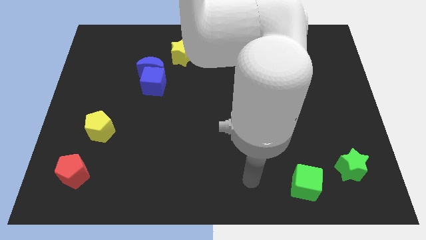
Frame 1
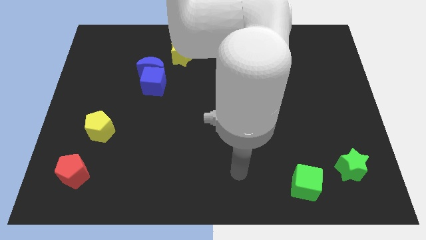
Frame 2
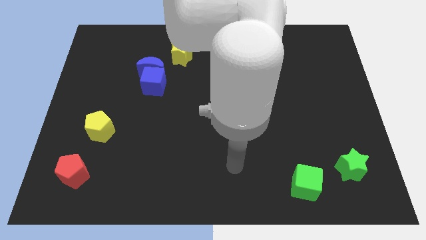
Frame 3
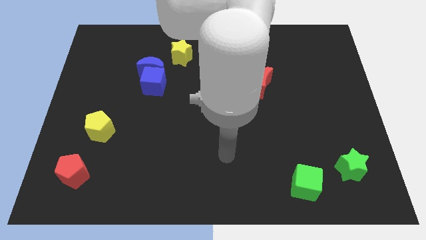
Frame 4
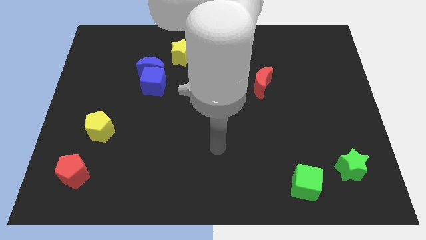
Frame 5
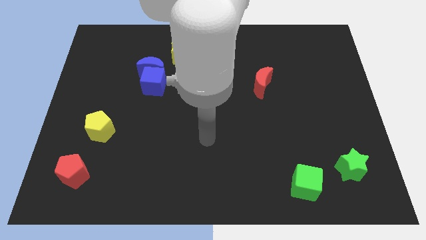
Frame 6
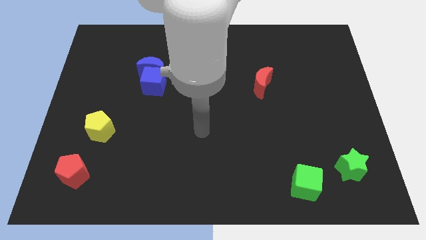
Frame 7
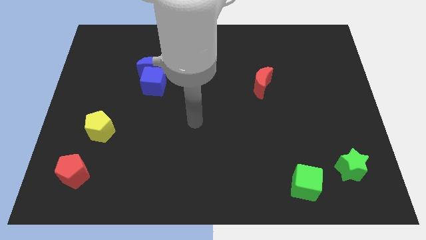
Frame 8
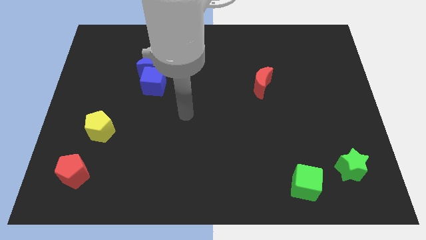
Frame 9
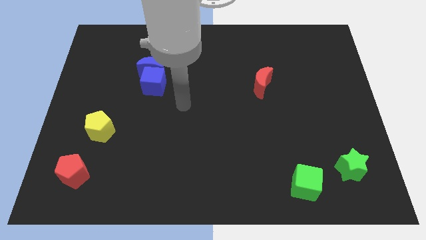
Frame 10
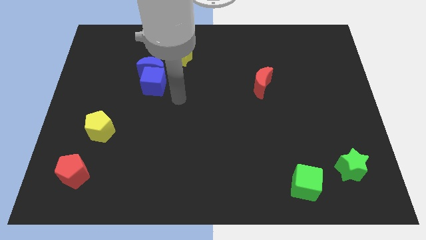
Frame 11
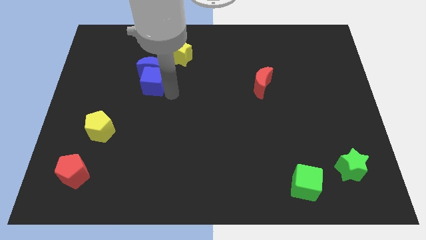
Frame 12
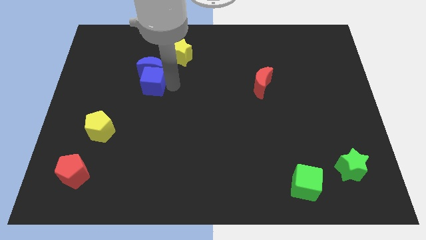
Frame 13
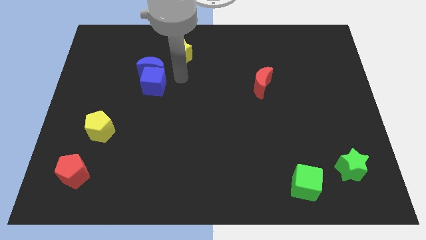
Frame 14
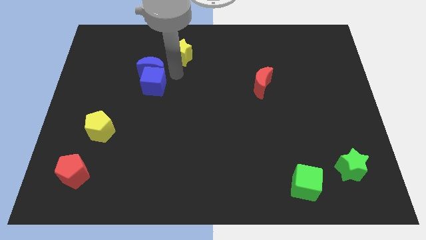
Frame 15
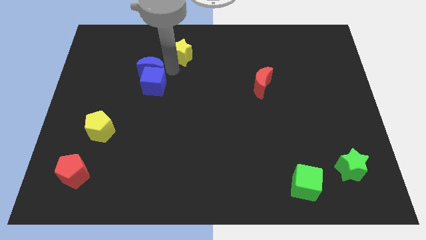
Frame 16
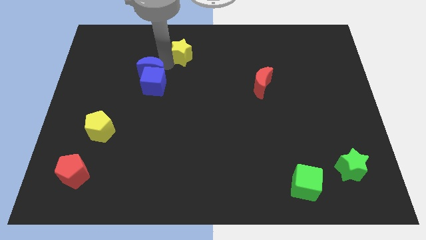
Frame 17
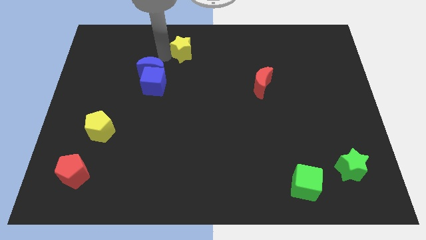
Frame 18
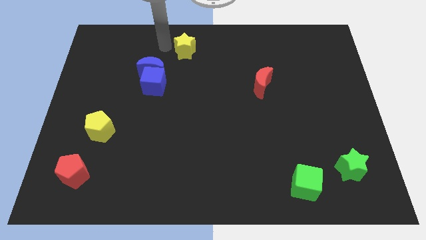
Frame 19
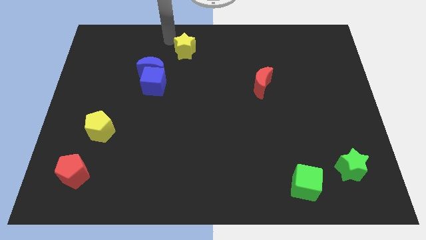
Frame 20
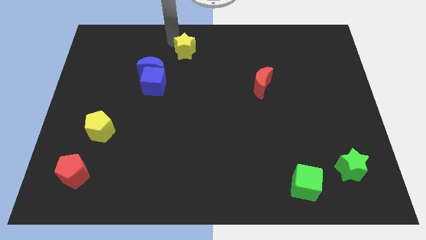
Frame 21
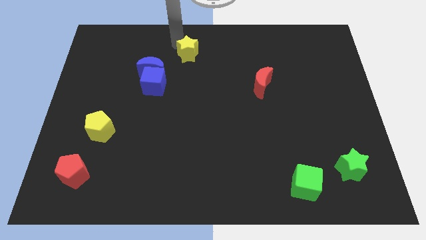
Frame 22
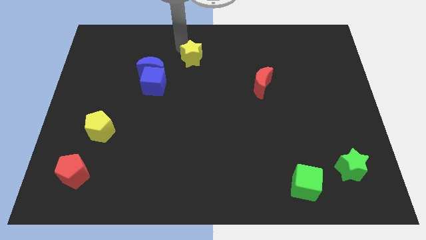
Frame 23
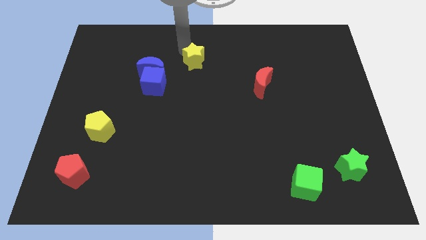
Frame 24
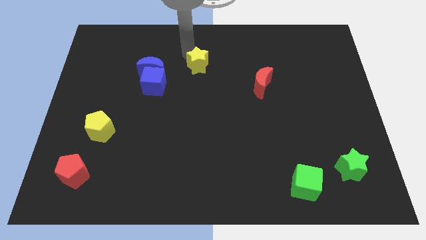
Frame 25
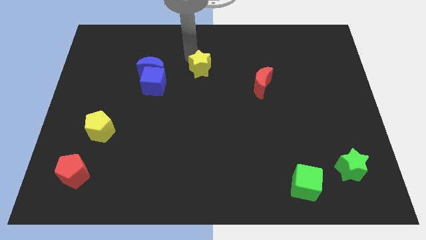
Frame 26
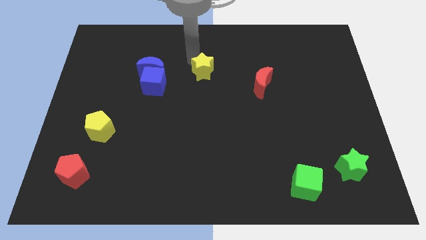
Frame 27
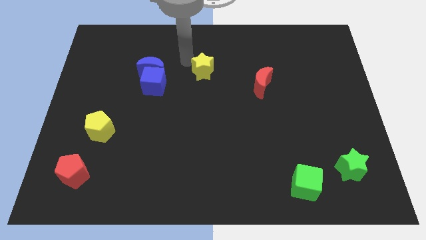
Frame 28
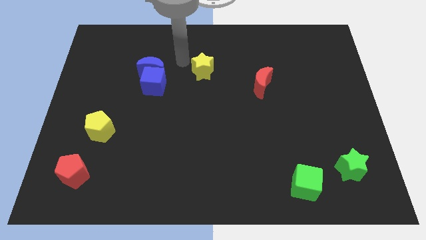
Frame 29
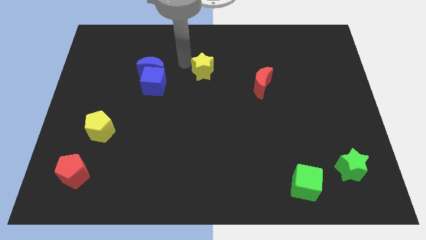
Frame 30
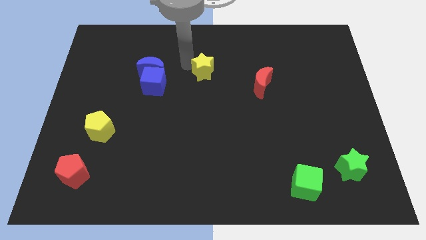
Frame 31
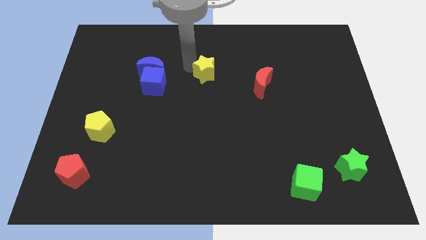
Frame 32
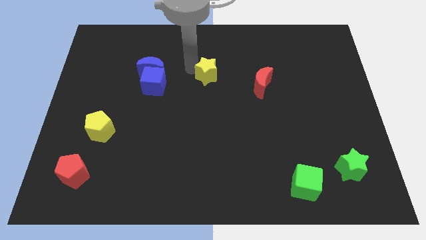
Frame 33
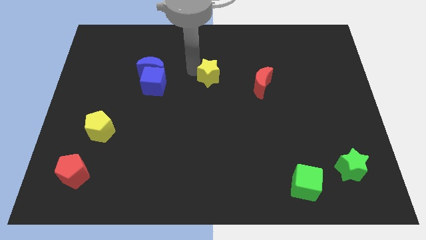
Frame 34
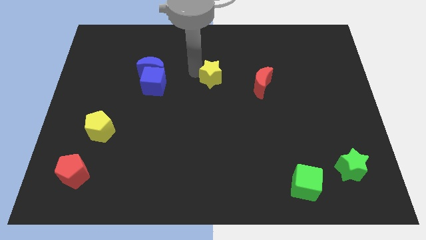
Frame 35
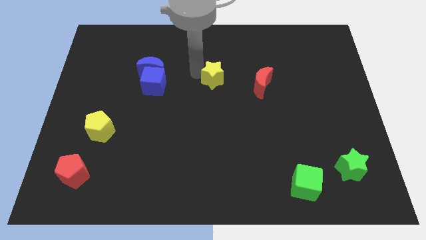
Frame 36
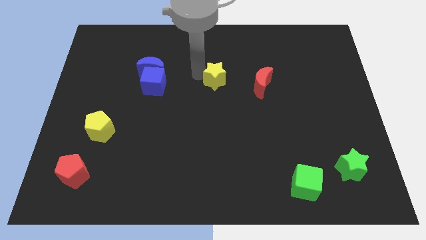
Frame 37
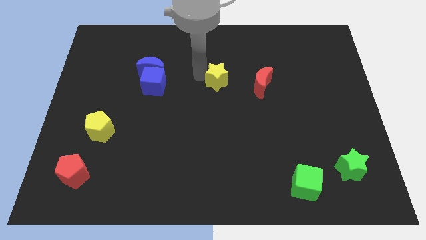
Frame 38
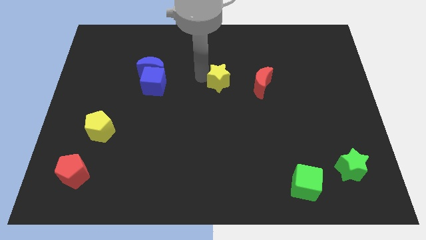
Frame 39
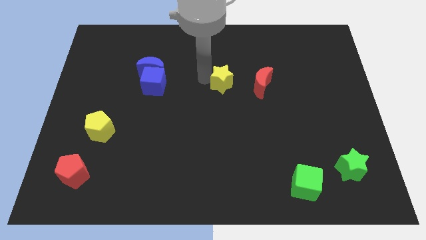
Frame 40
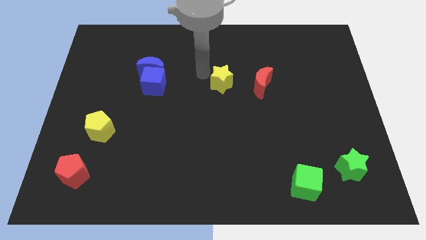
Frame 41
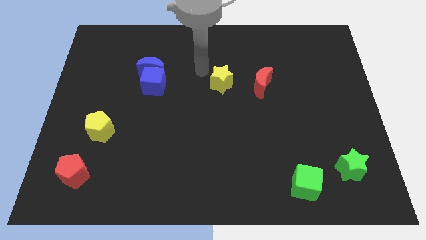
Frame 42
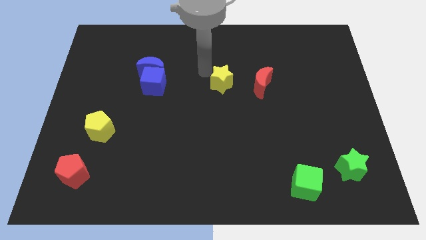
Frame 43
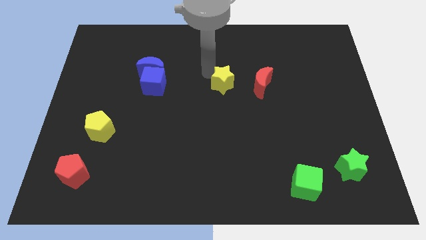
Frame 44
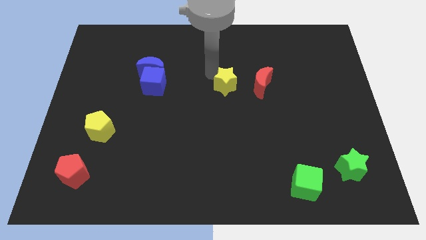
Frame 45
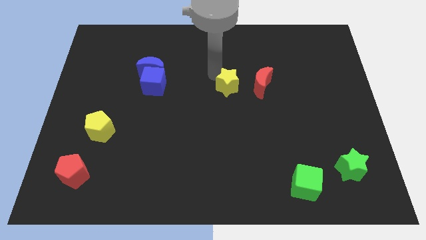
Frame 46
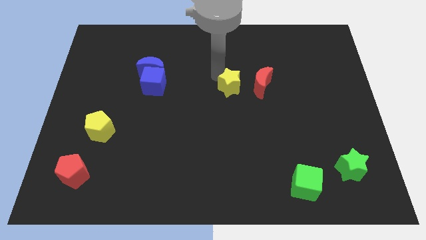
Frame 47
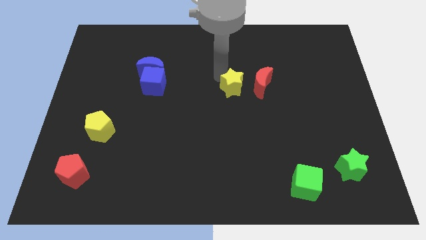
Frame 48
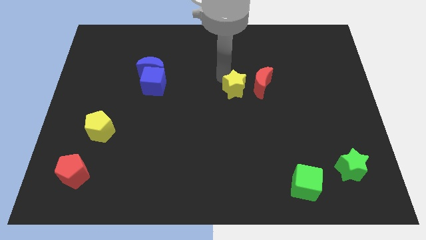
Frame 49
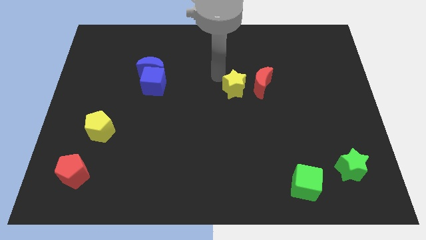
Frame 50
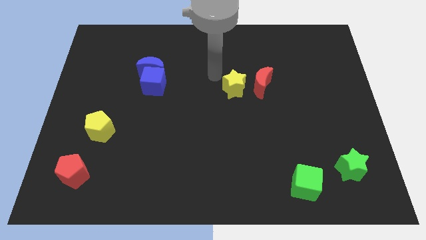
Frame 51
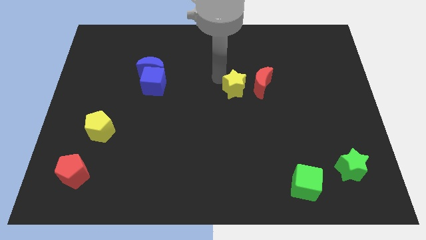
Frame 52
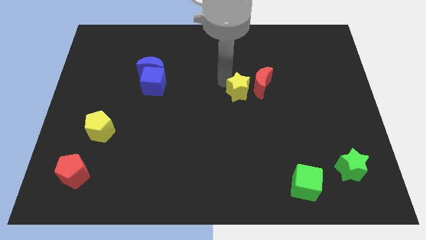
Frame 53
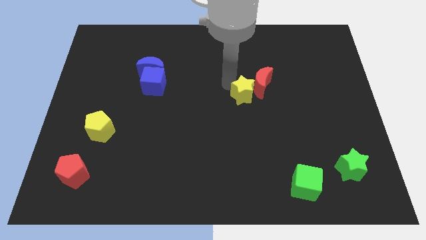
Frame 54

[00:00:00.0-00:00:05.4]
move the yellow star downwards and to the right

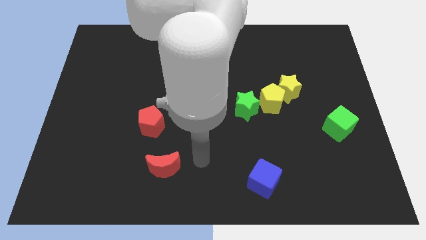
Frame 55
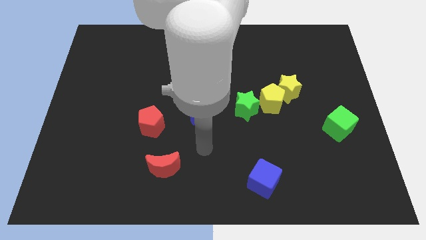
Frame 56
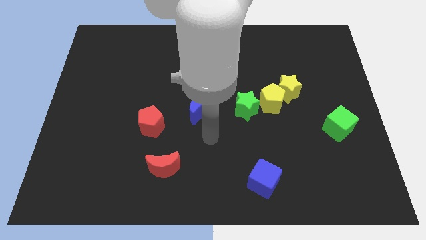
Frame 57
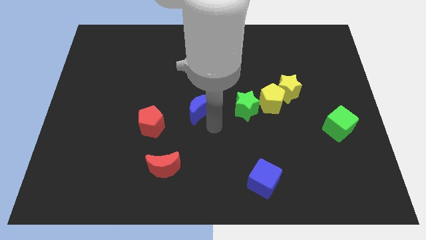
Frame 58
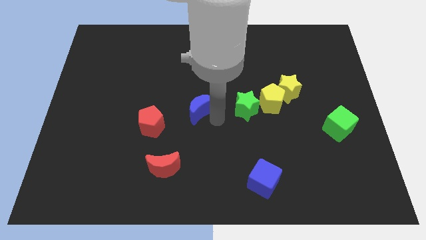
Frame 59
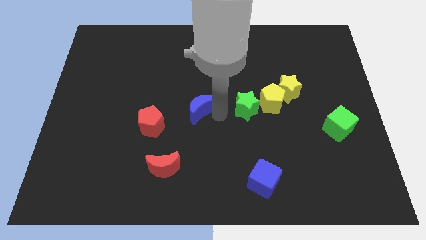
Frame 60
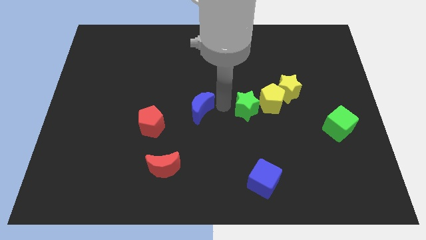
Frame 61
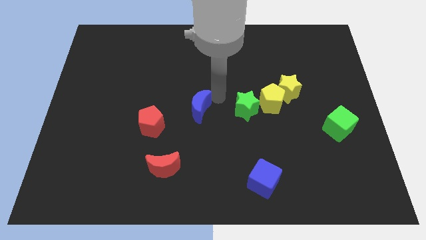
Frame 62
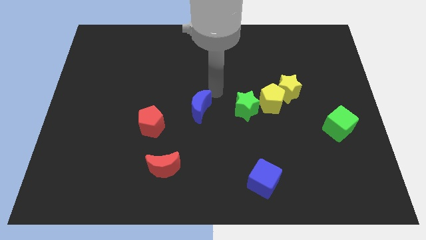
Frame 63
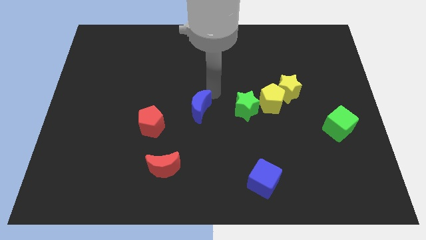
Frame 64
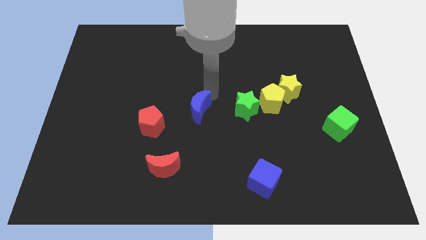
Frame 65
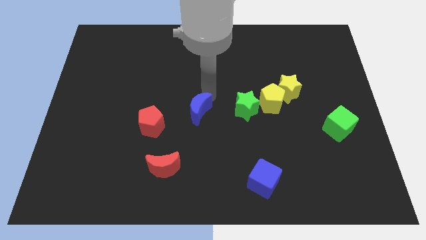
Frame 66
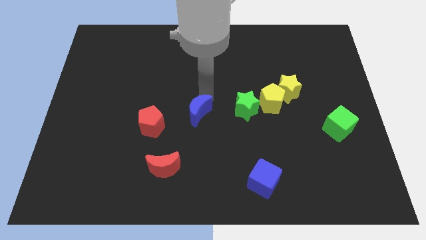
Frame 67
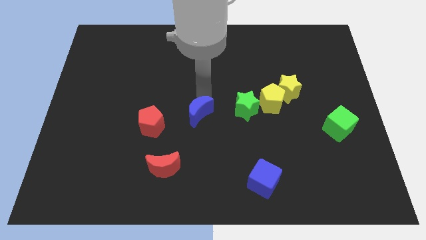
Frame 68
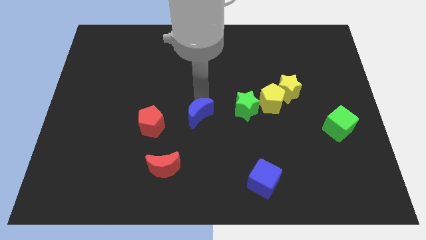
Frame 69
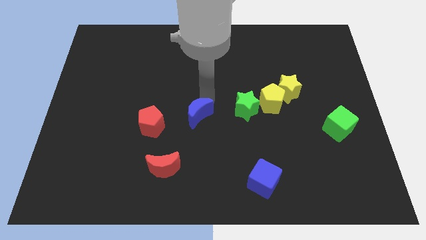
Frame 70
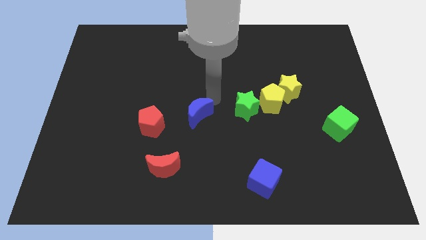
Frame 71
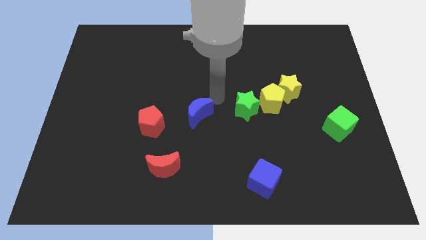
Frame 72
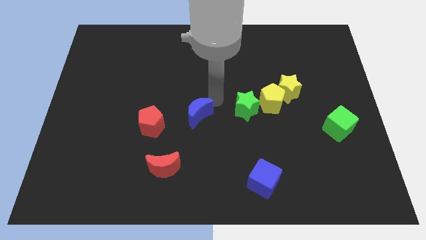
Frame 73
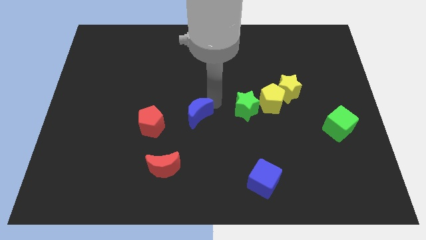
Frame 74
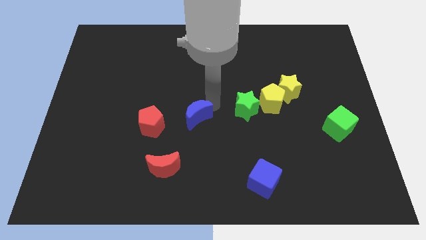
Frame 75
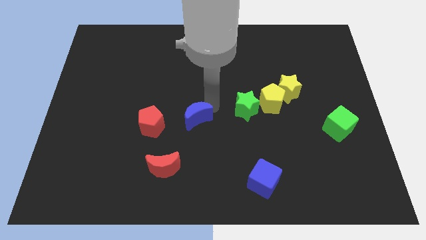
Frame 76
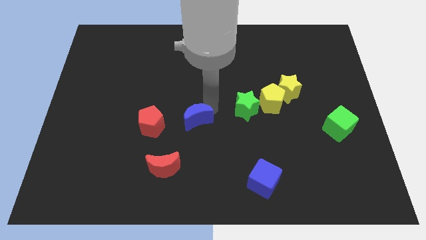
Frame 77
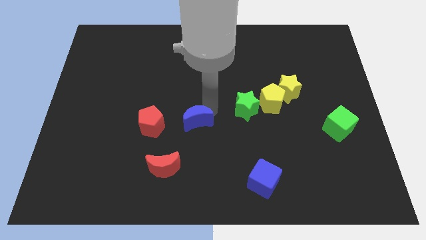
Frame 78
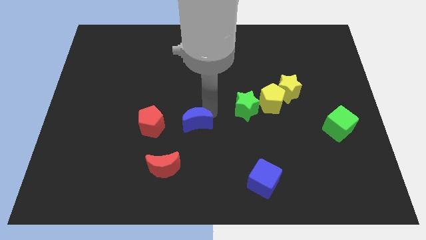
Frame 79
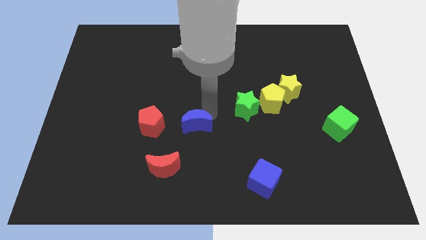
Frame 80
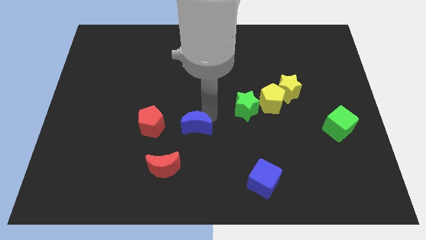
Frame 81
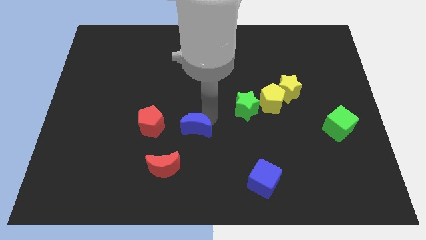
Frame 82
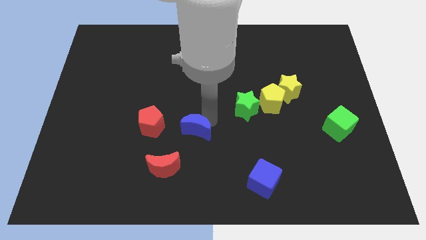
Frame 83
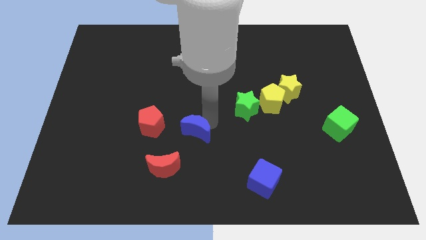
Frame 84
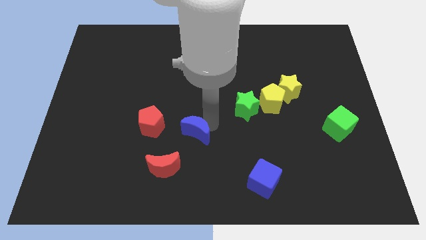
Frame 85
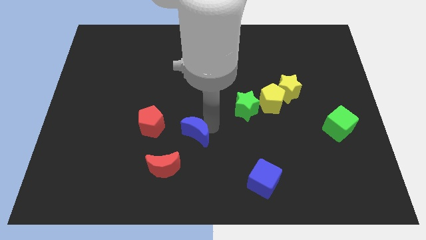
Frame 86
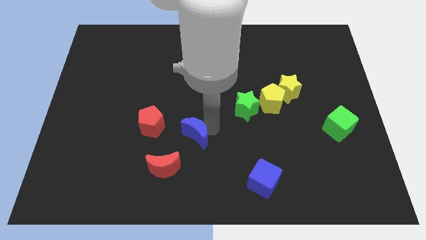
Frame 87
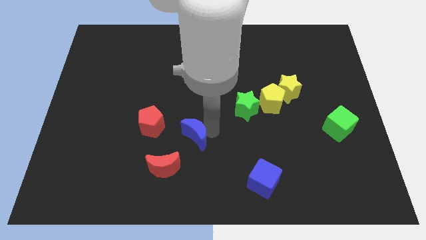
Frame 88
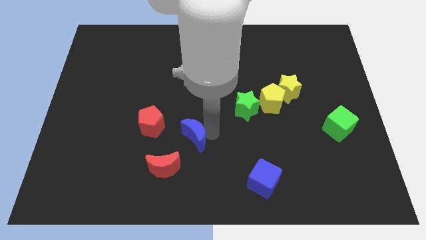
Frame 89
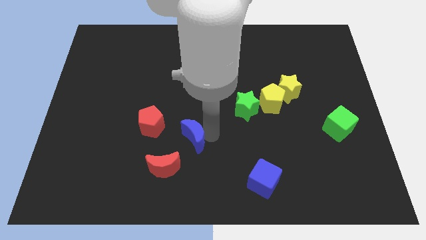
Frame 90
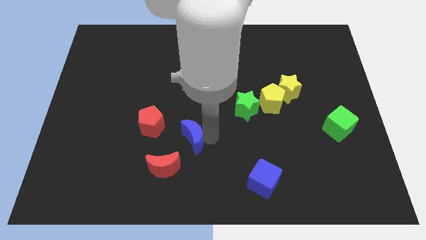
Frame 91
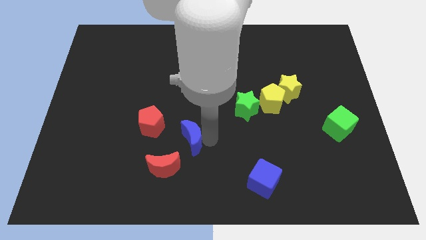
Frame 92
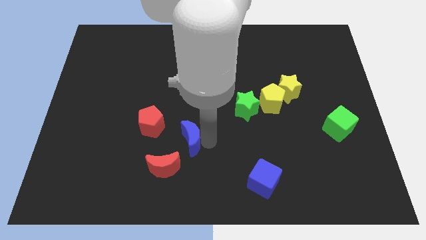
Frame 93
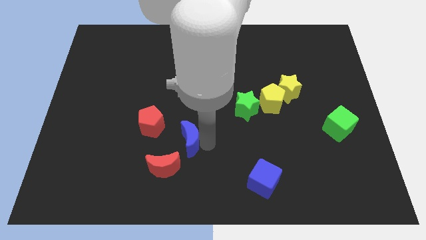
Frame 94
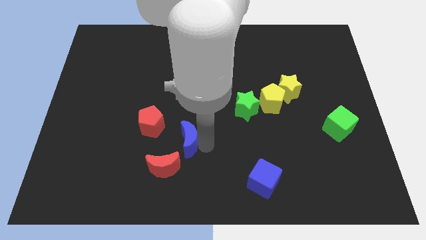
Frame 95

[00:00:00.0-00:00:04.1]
slide the blue moon slightly diagonally downwards and to the left
